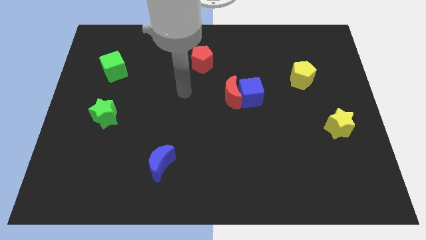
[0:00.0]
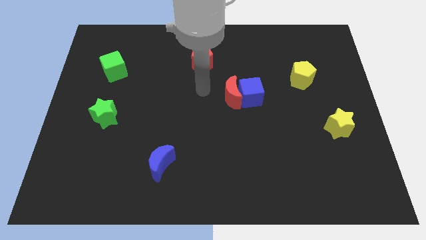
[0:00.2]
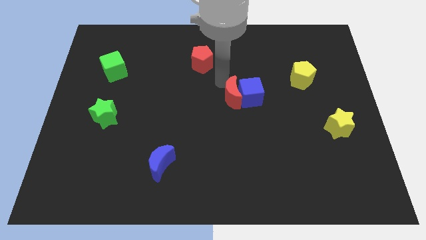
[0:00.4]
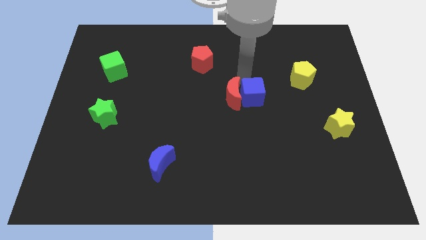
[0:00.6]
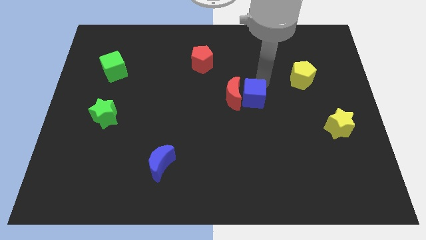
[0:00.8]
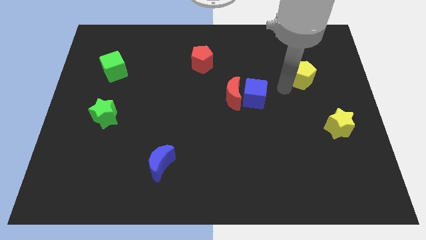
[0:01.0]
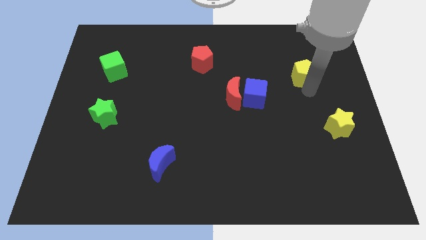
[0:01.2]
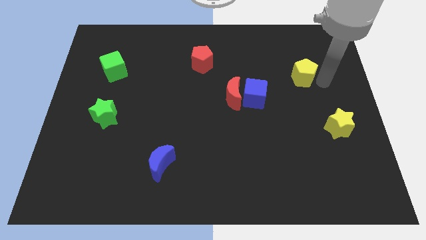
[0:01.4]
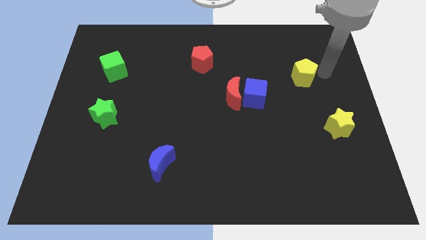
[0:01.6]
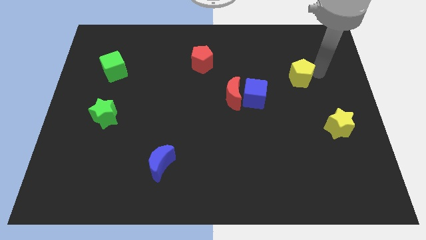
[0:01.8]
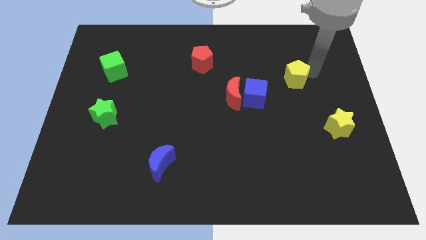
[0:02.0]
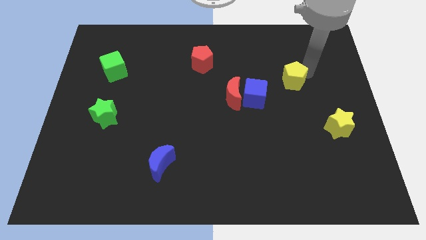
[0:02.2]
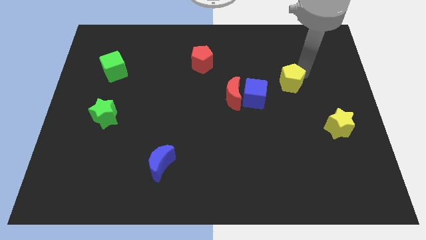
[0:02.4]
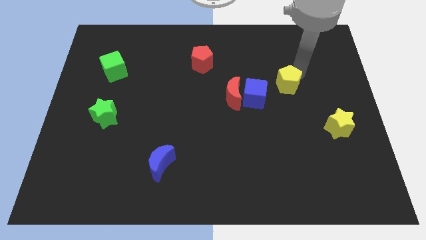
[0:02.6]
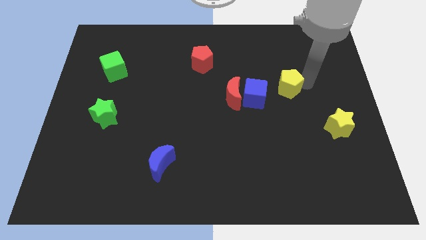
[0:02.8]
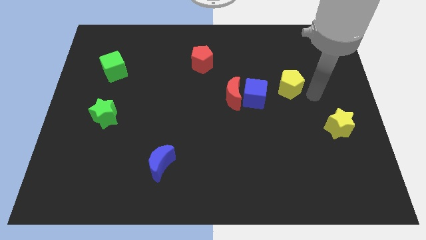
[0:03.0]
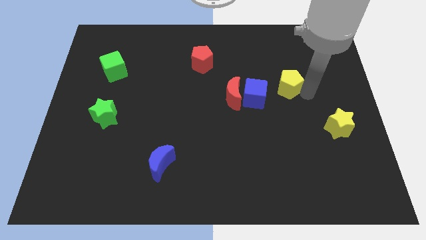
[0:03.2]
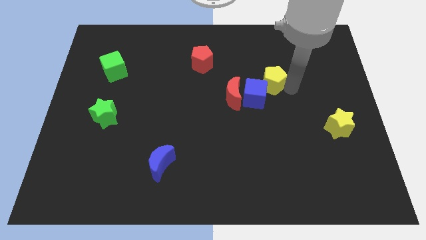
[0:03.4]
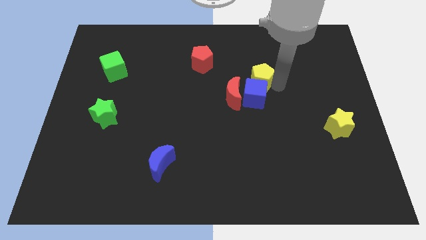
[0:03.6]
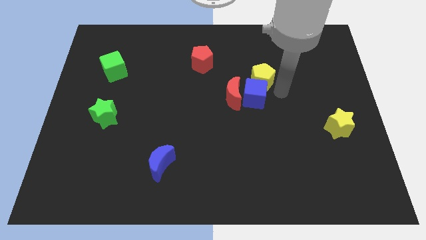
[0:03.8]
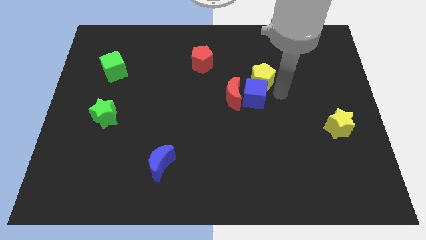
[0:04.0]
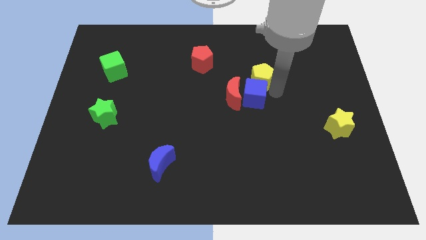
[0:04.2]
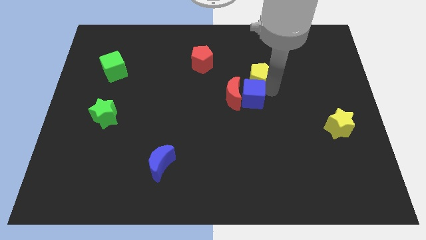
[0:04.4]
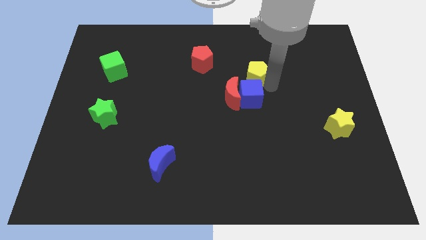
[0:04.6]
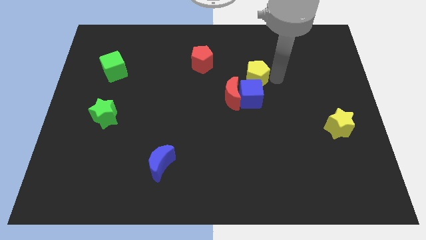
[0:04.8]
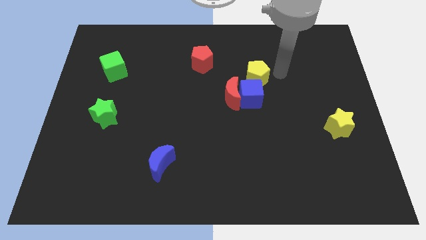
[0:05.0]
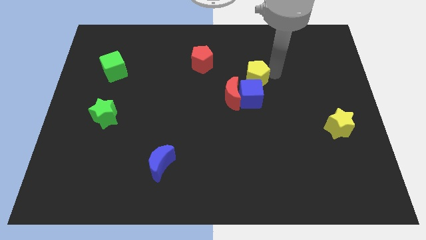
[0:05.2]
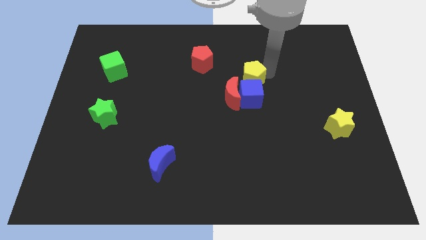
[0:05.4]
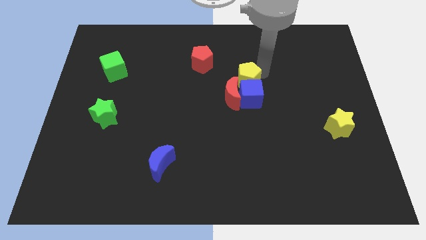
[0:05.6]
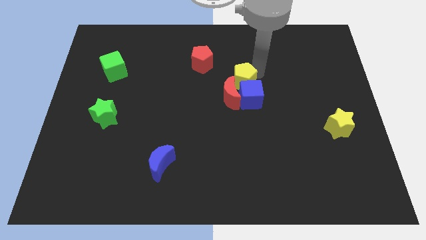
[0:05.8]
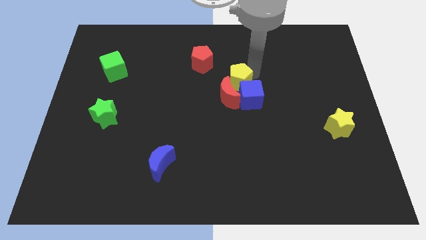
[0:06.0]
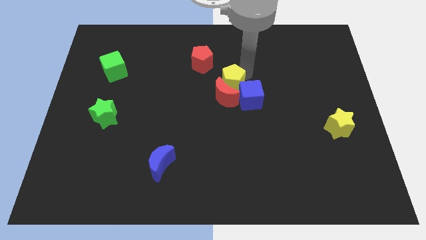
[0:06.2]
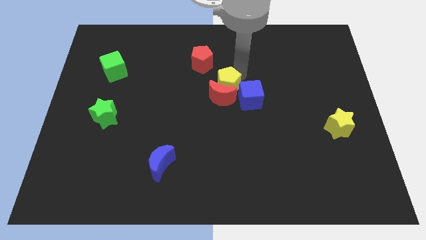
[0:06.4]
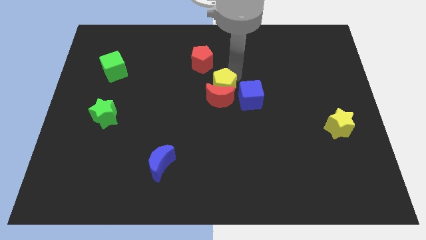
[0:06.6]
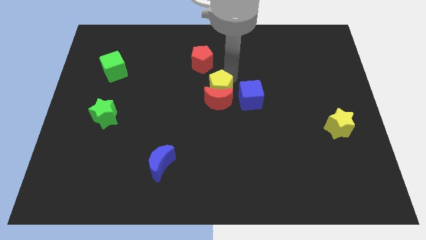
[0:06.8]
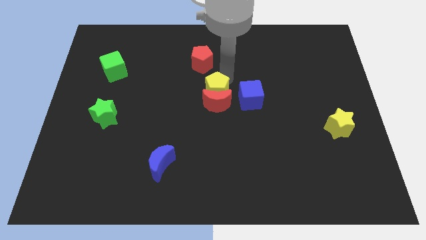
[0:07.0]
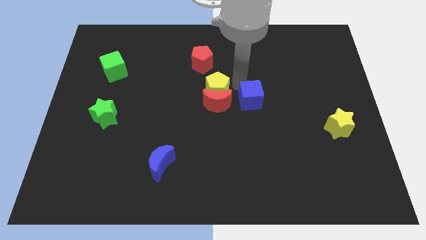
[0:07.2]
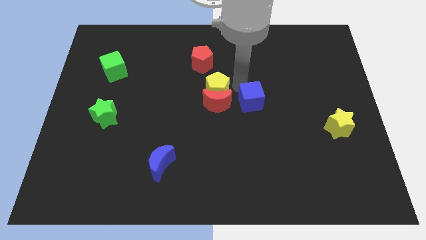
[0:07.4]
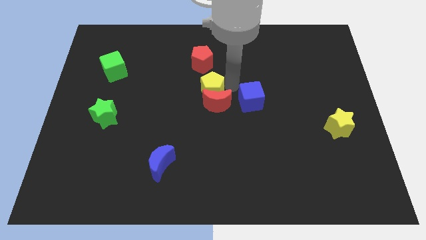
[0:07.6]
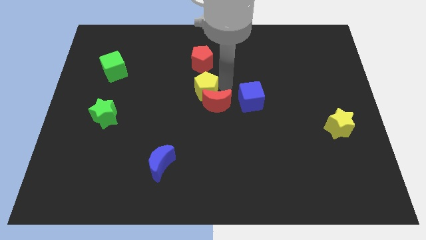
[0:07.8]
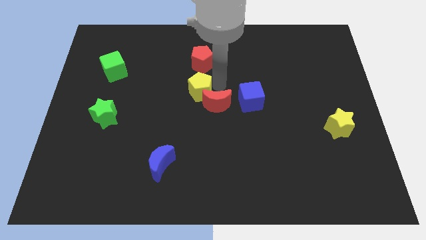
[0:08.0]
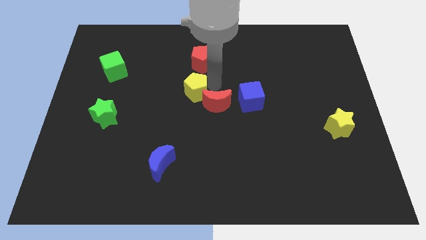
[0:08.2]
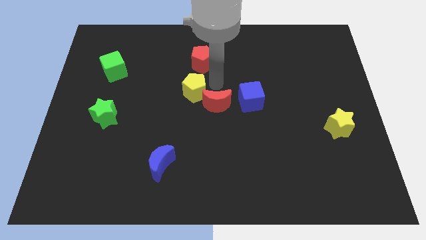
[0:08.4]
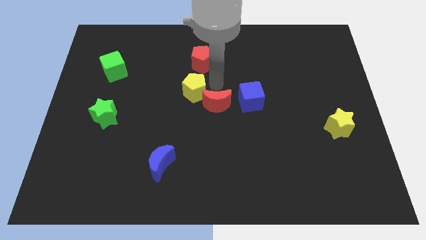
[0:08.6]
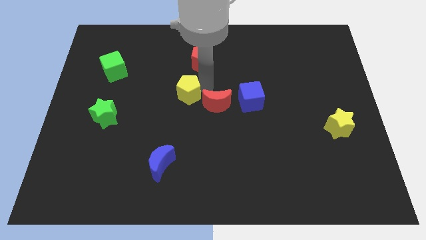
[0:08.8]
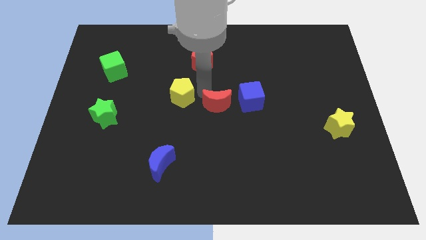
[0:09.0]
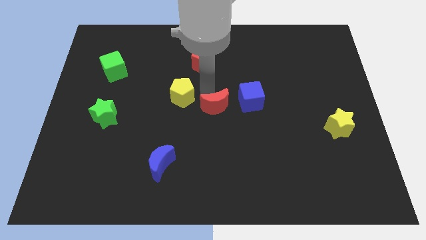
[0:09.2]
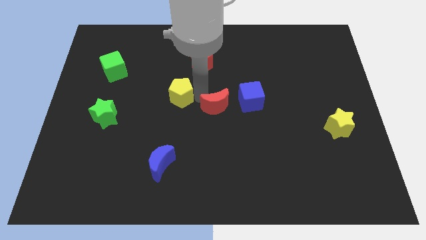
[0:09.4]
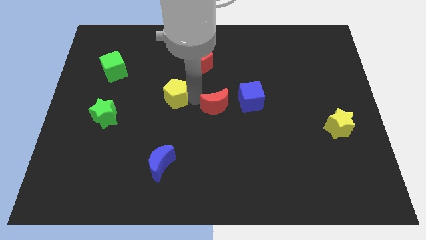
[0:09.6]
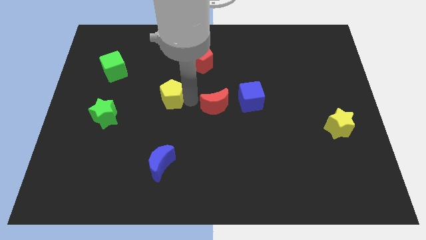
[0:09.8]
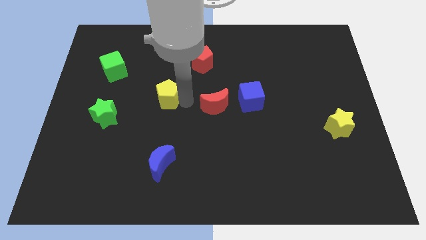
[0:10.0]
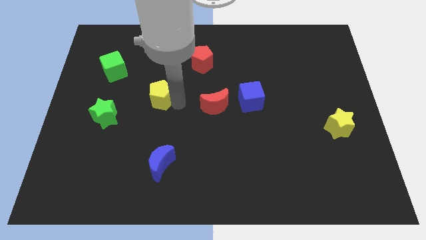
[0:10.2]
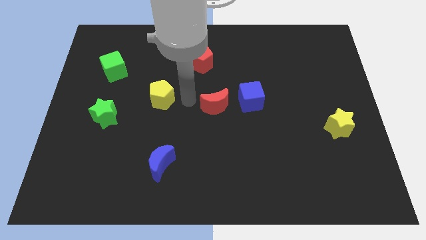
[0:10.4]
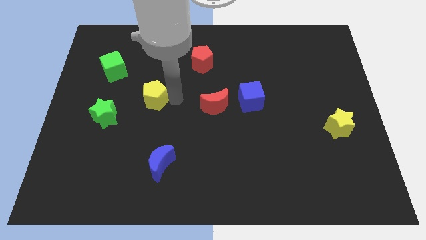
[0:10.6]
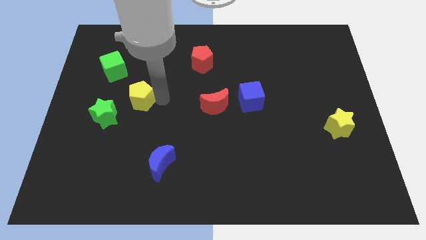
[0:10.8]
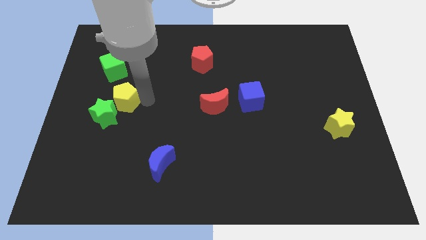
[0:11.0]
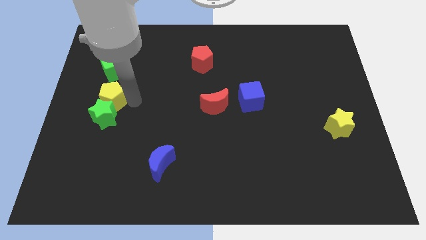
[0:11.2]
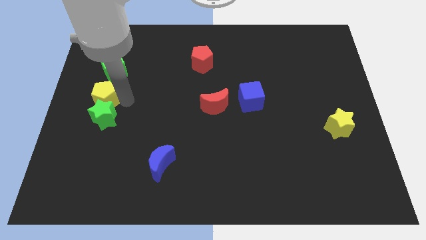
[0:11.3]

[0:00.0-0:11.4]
put the yellow pentagon to the left side of the board

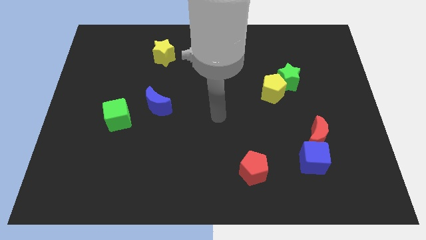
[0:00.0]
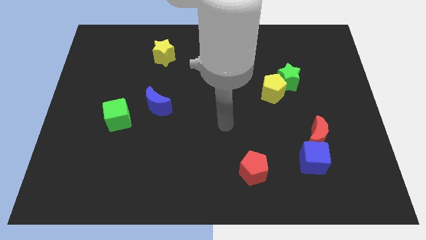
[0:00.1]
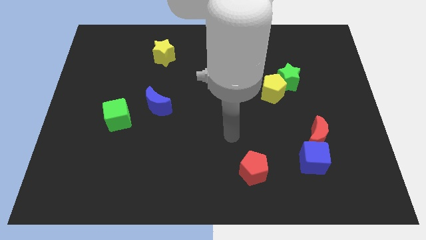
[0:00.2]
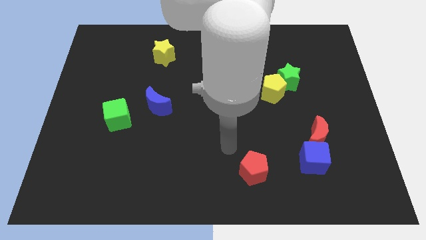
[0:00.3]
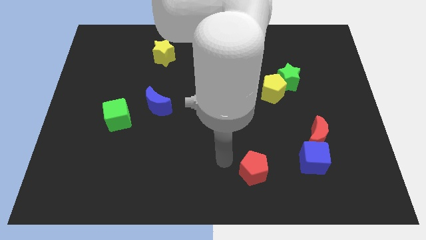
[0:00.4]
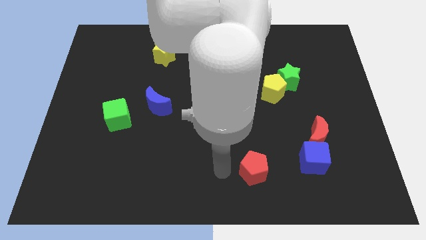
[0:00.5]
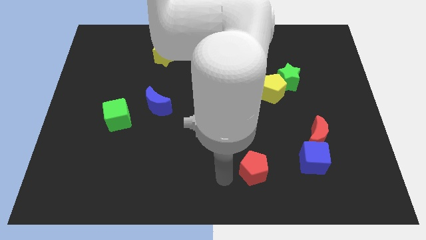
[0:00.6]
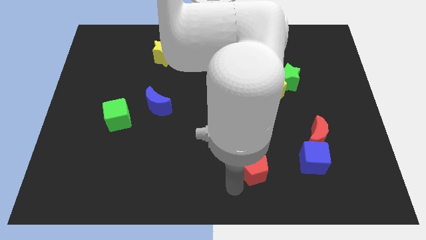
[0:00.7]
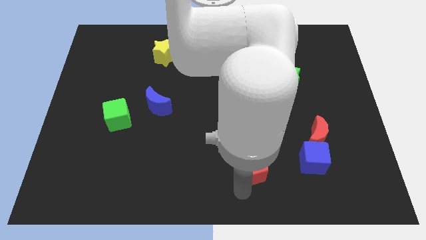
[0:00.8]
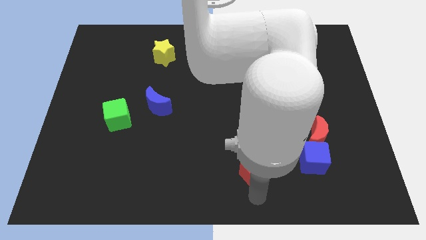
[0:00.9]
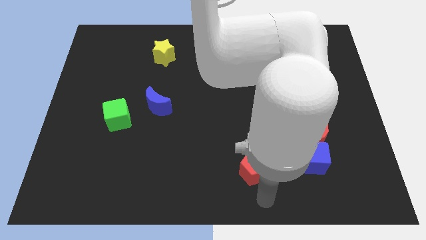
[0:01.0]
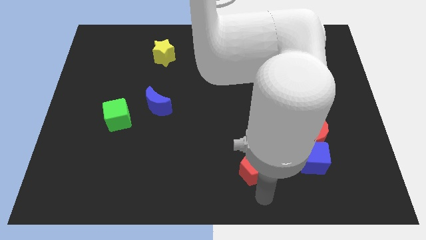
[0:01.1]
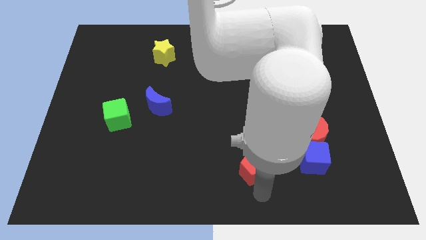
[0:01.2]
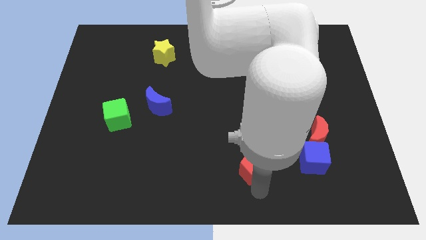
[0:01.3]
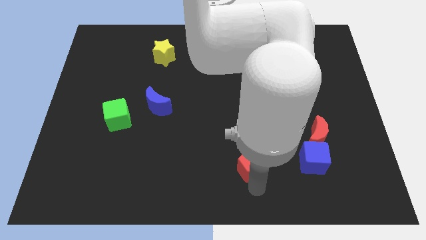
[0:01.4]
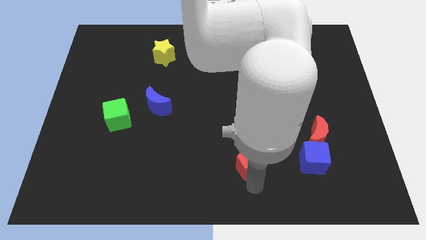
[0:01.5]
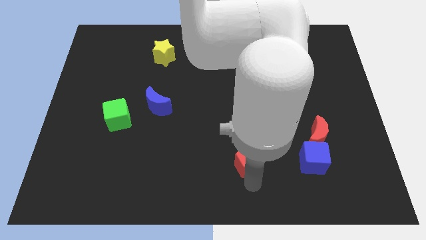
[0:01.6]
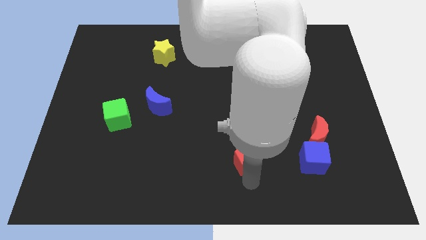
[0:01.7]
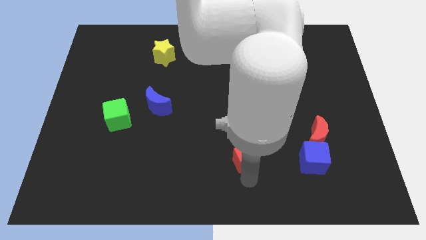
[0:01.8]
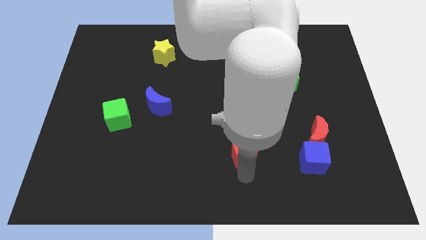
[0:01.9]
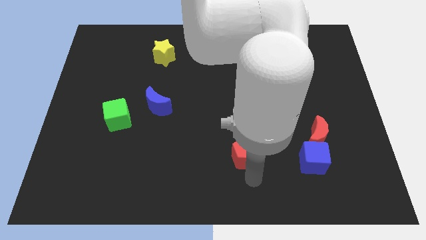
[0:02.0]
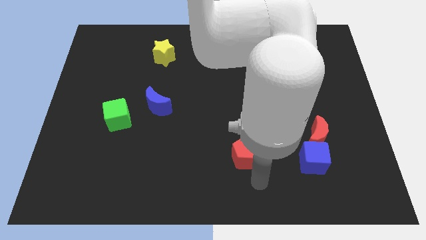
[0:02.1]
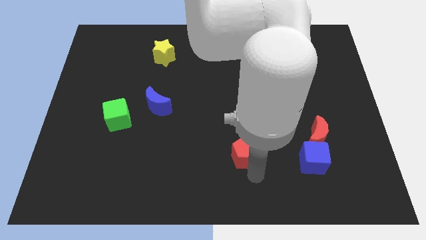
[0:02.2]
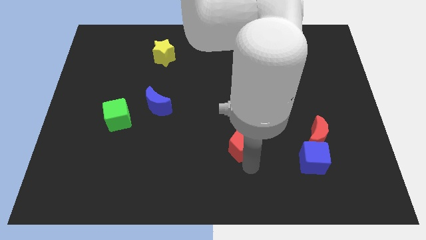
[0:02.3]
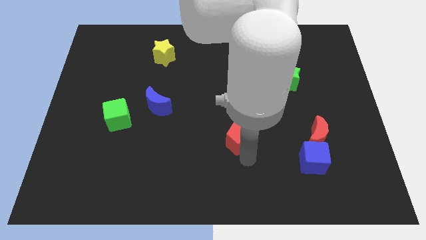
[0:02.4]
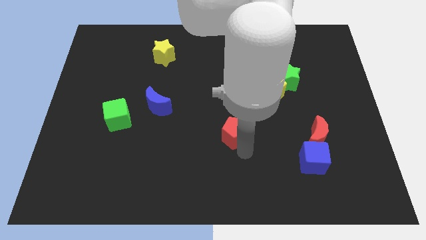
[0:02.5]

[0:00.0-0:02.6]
push the red pentagon to the center of the board
